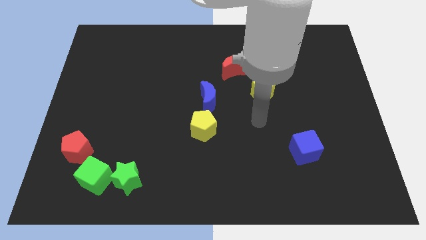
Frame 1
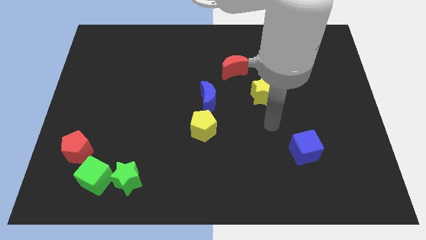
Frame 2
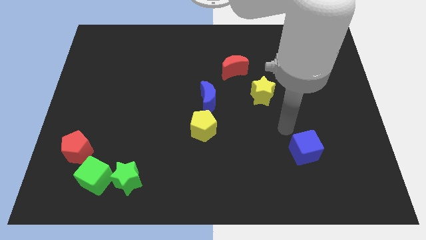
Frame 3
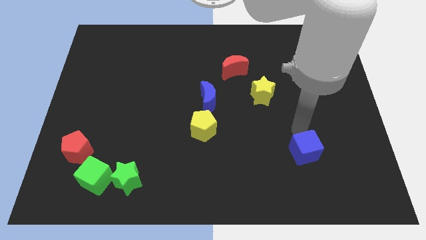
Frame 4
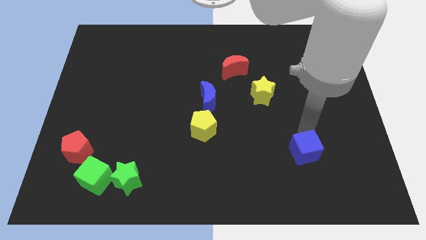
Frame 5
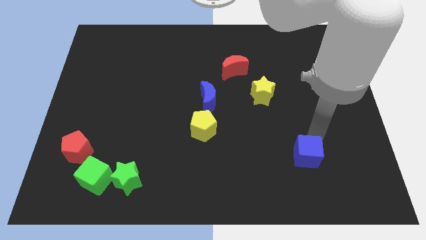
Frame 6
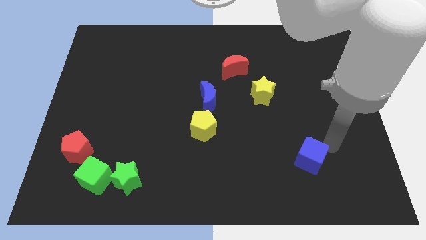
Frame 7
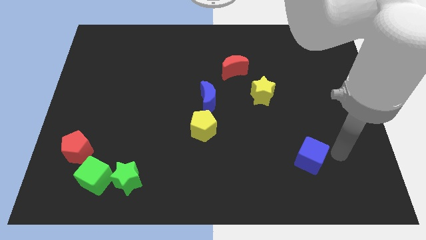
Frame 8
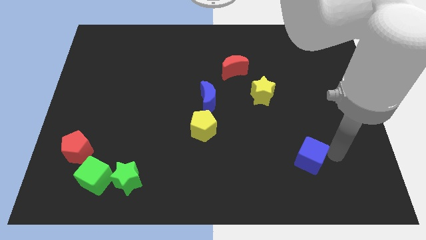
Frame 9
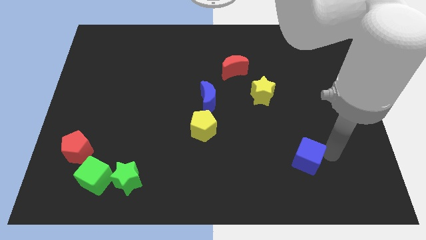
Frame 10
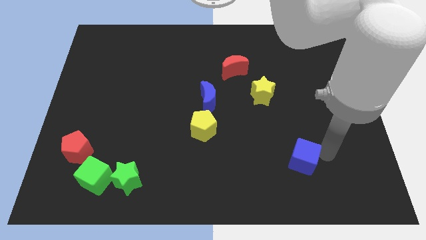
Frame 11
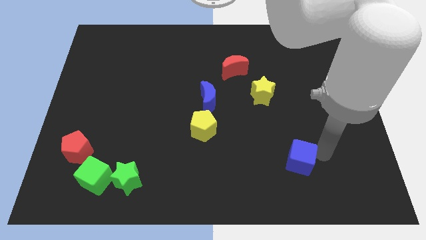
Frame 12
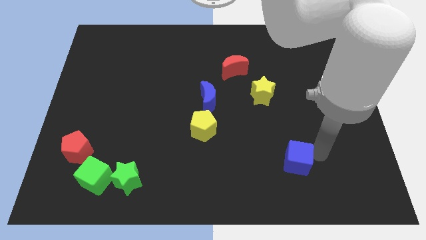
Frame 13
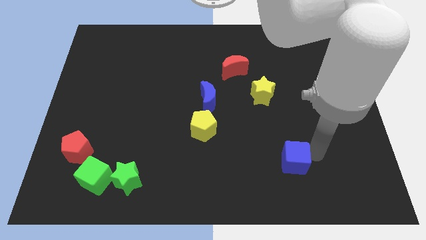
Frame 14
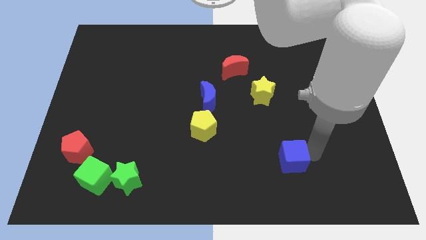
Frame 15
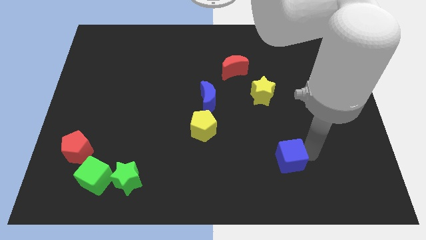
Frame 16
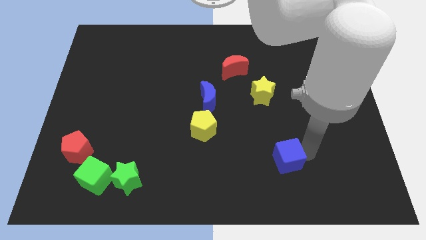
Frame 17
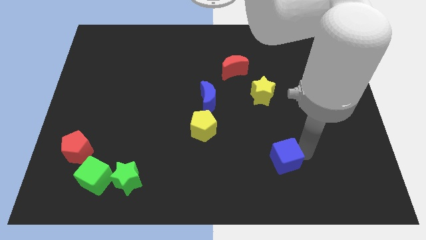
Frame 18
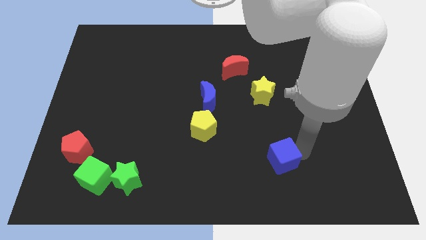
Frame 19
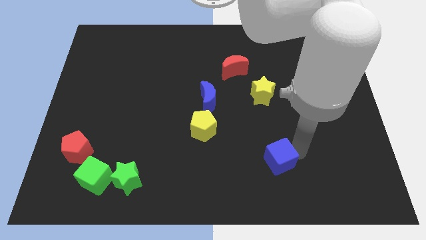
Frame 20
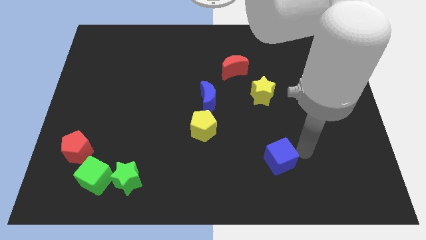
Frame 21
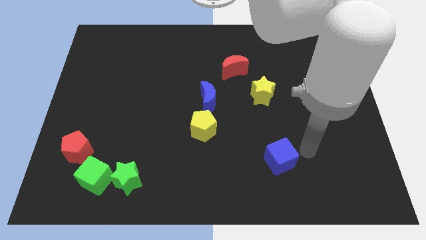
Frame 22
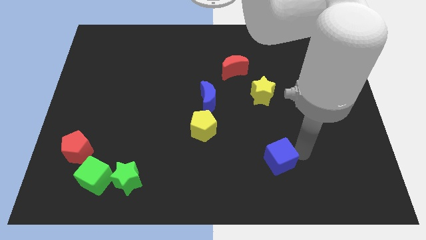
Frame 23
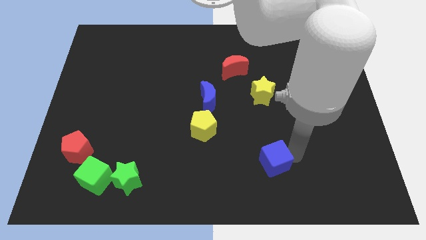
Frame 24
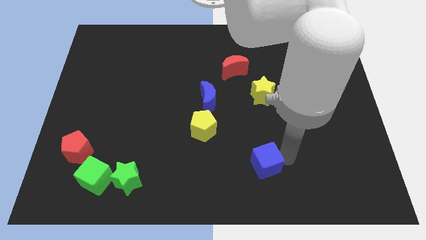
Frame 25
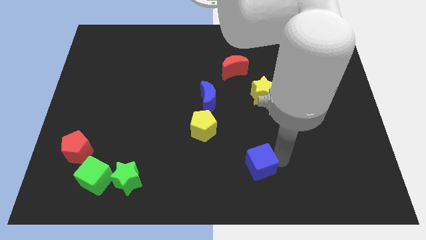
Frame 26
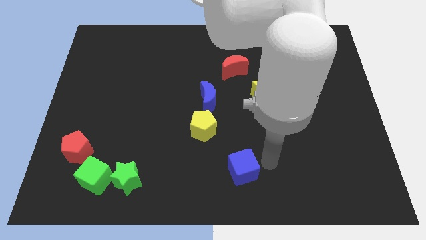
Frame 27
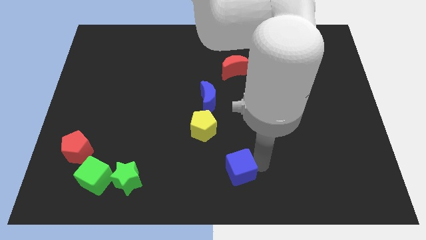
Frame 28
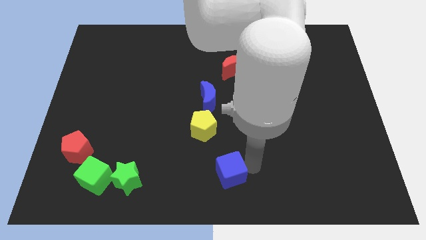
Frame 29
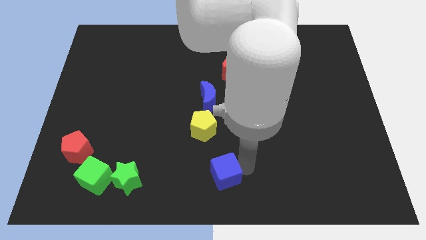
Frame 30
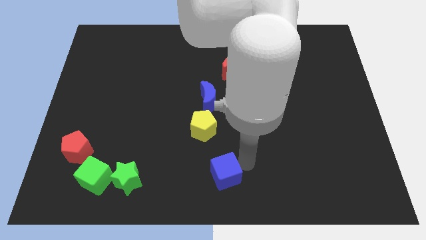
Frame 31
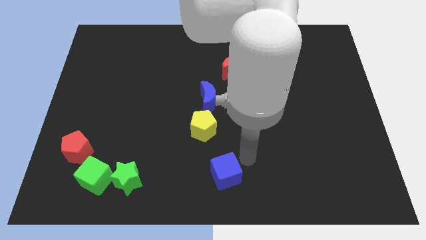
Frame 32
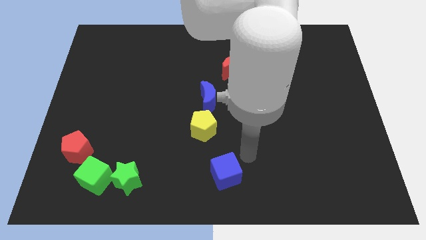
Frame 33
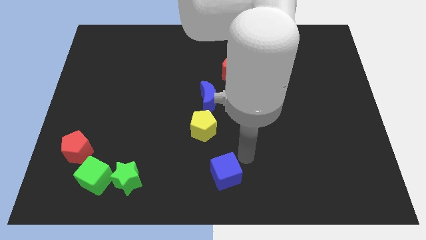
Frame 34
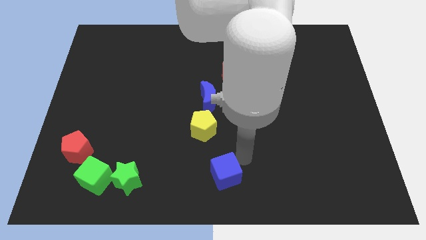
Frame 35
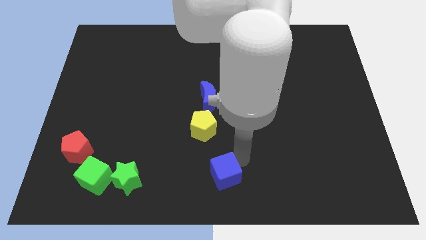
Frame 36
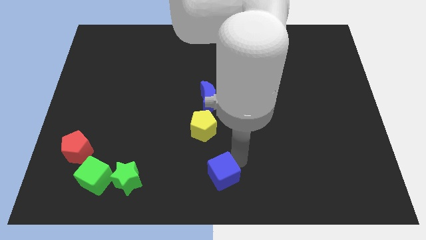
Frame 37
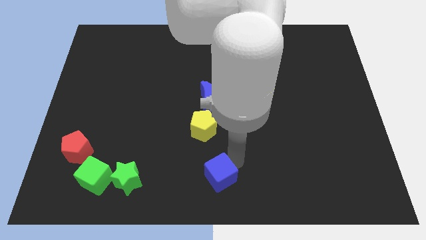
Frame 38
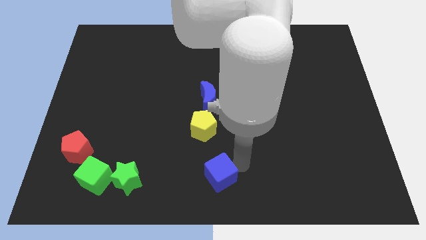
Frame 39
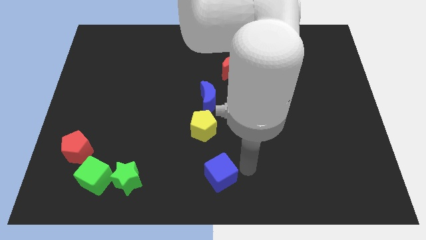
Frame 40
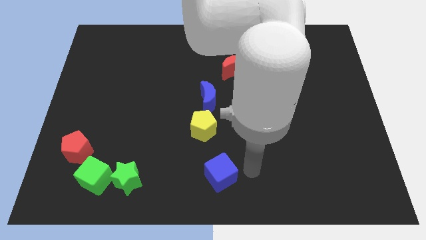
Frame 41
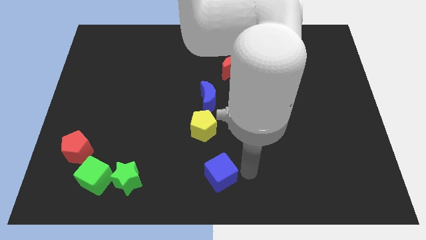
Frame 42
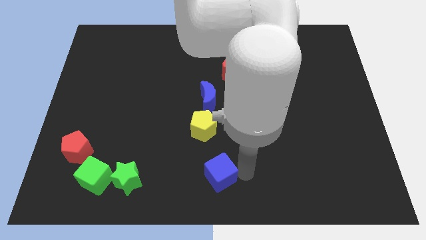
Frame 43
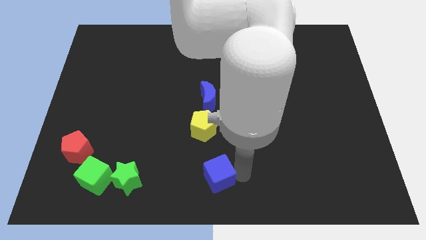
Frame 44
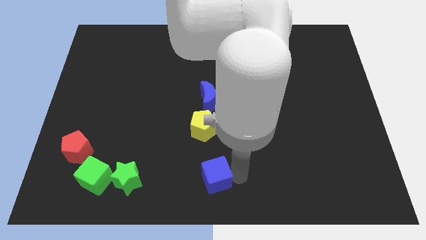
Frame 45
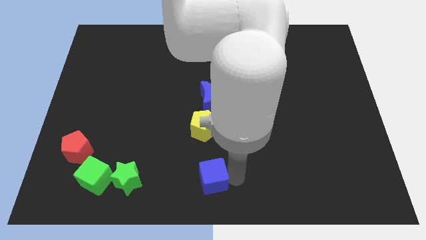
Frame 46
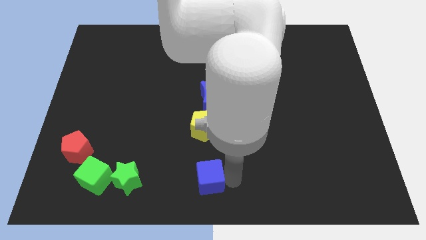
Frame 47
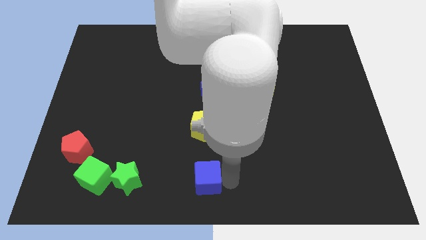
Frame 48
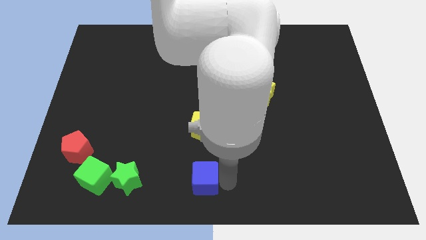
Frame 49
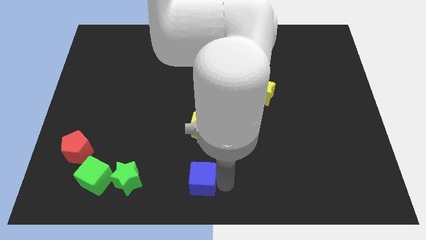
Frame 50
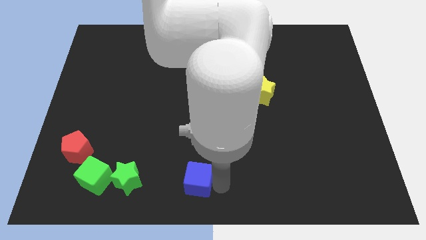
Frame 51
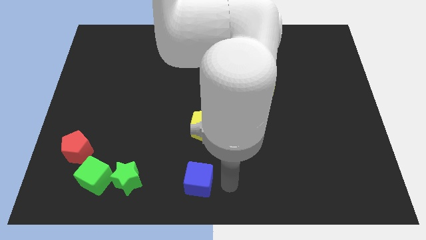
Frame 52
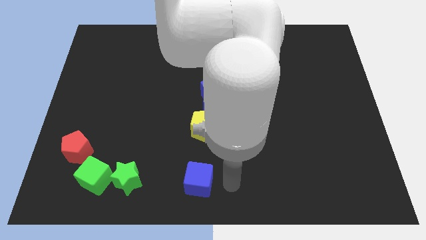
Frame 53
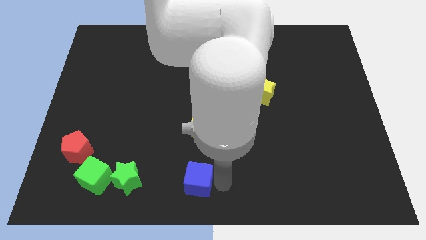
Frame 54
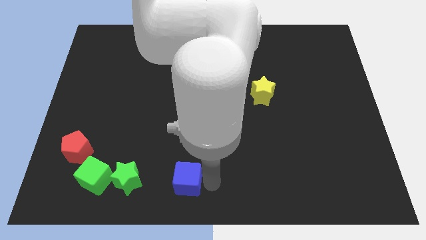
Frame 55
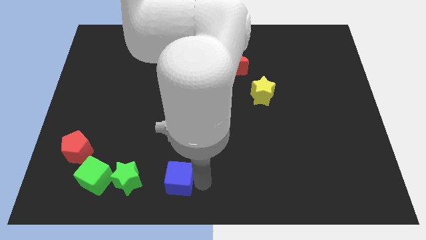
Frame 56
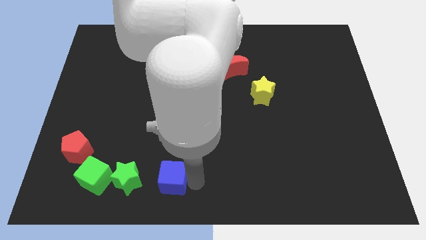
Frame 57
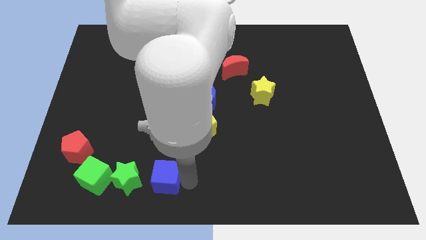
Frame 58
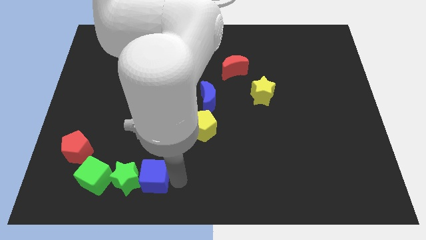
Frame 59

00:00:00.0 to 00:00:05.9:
move the blue cube towards the green star

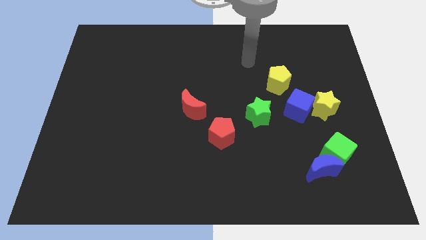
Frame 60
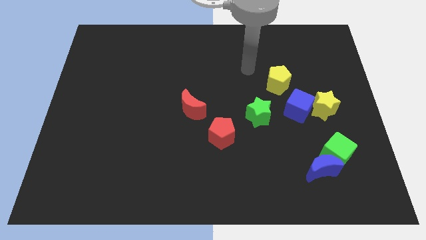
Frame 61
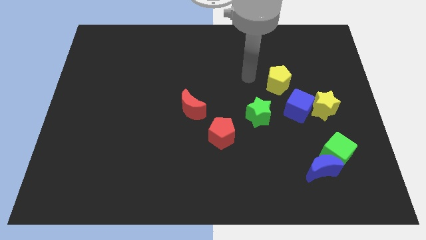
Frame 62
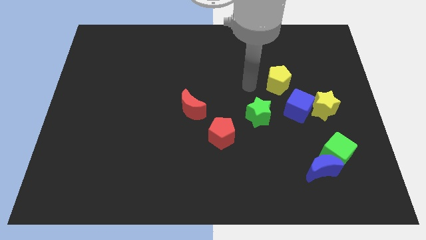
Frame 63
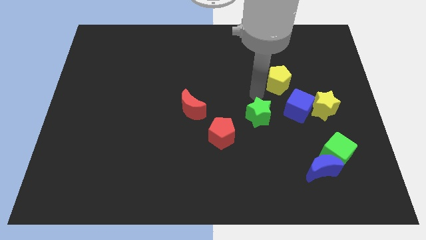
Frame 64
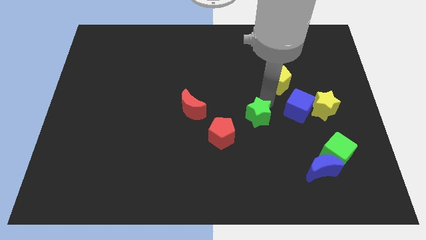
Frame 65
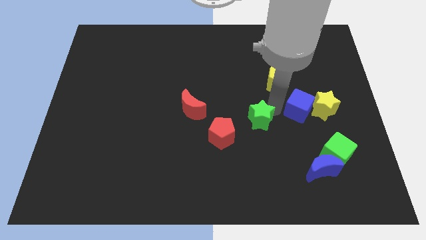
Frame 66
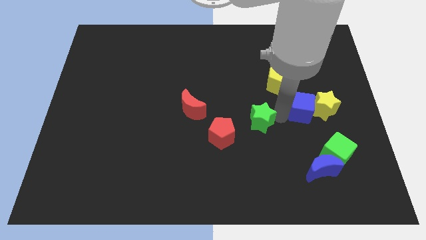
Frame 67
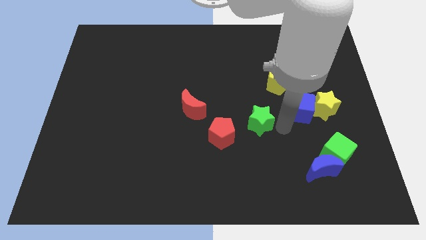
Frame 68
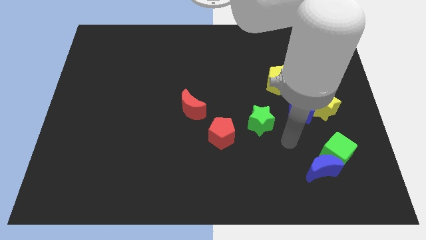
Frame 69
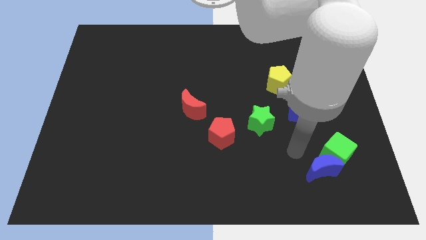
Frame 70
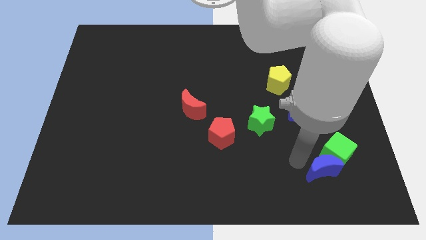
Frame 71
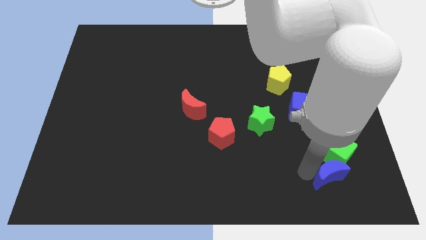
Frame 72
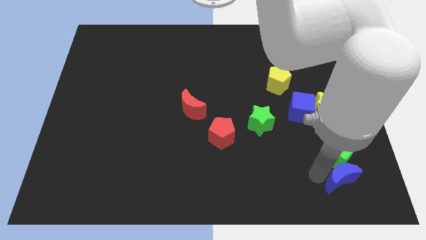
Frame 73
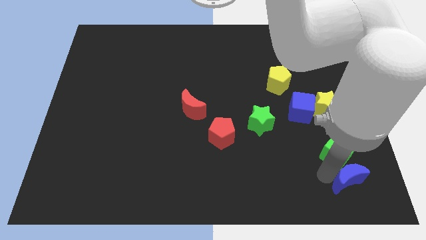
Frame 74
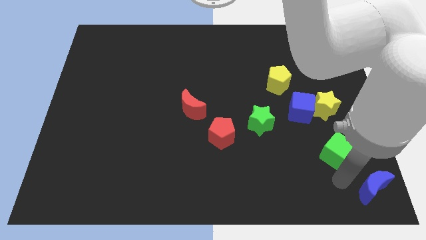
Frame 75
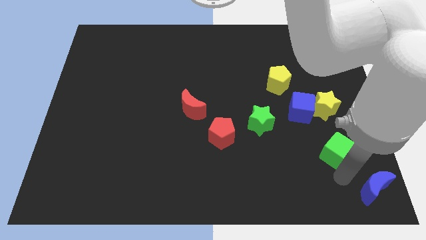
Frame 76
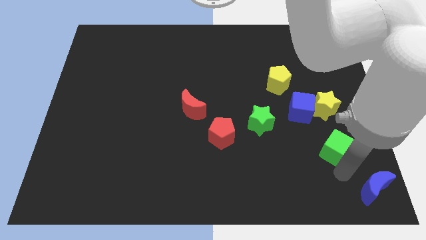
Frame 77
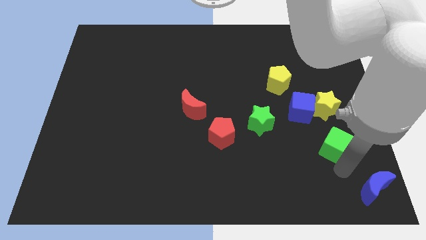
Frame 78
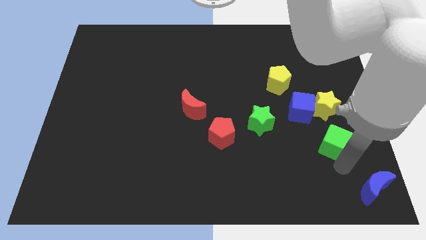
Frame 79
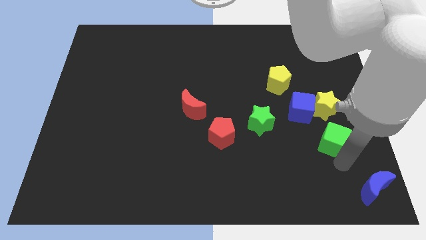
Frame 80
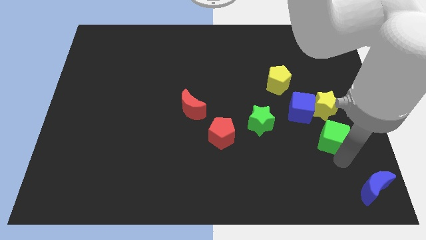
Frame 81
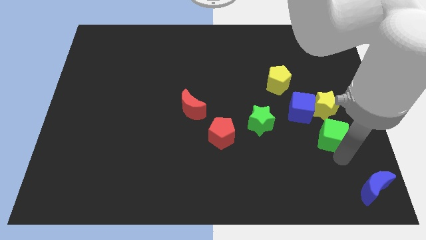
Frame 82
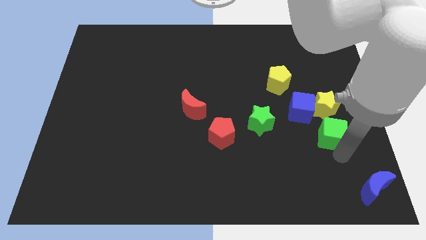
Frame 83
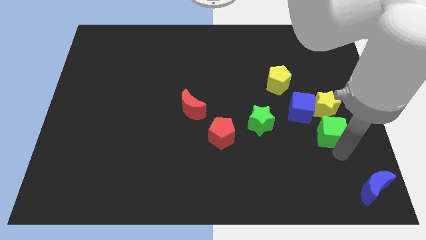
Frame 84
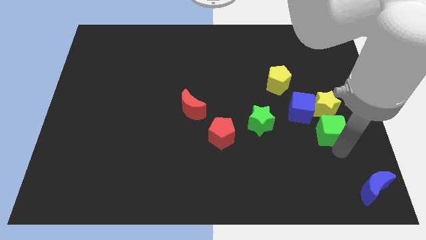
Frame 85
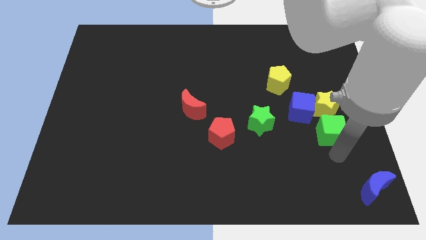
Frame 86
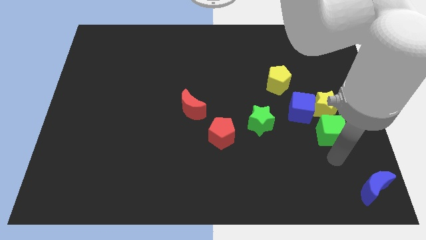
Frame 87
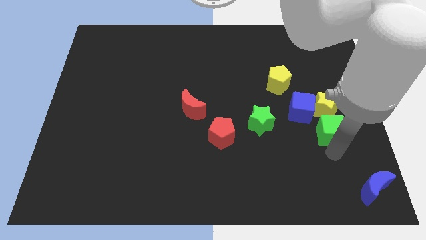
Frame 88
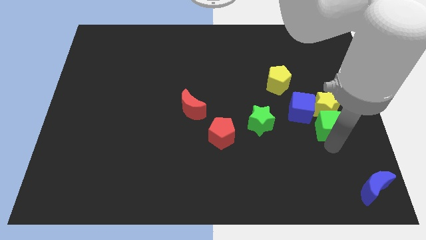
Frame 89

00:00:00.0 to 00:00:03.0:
push the green cube close to the yellow star
